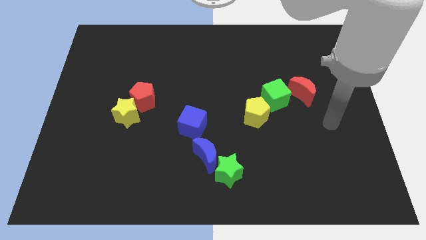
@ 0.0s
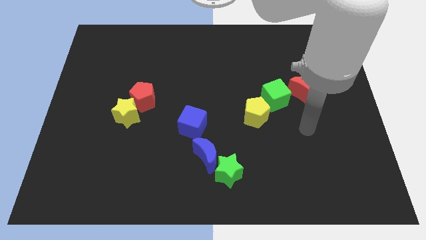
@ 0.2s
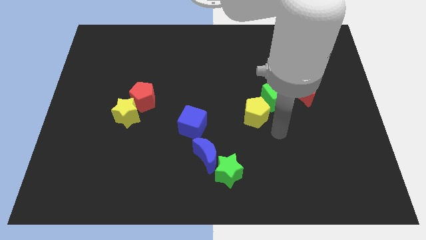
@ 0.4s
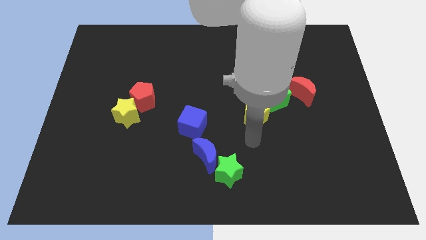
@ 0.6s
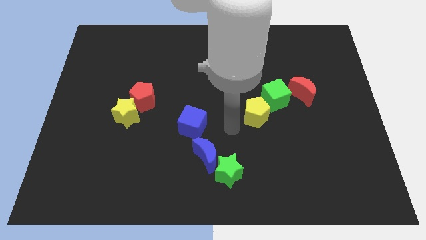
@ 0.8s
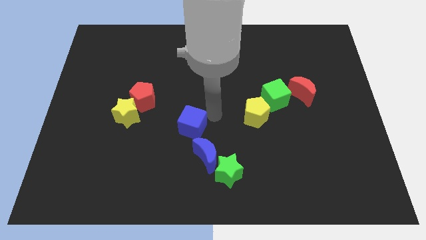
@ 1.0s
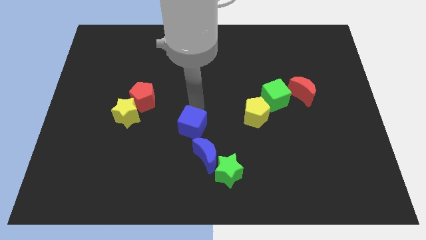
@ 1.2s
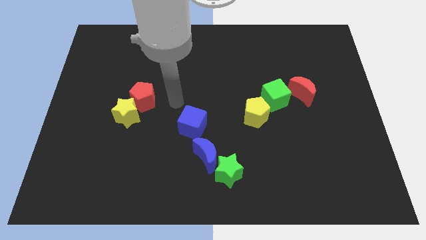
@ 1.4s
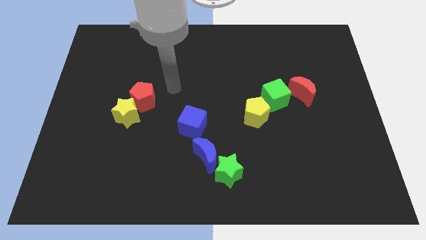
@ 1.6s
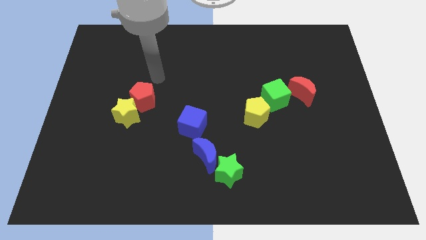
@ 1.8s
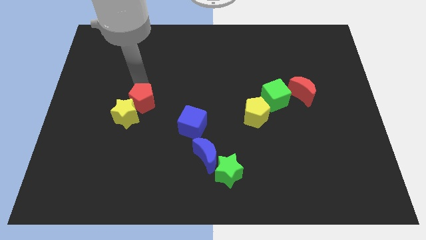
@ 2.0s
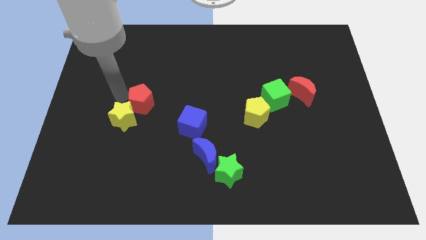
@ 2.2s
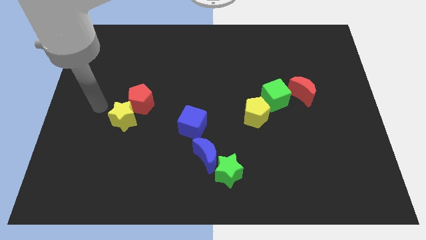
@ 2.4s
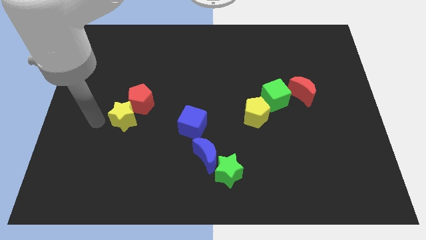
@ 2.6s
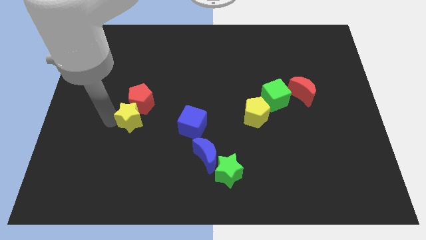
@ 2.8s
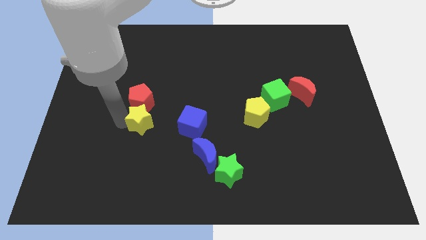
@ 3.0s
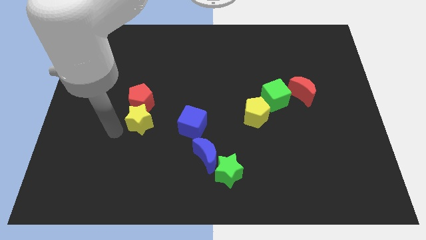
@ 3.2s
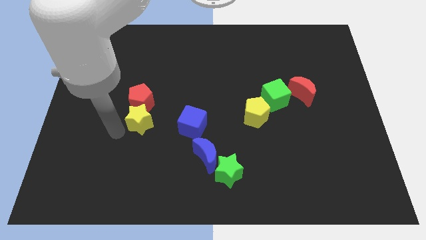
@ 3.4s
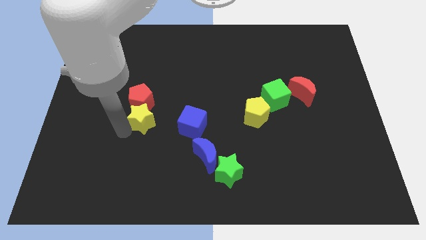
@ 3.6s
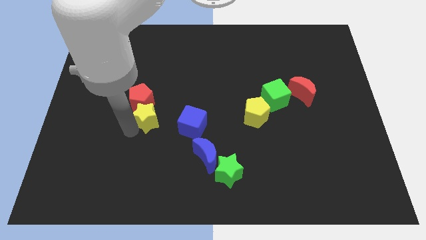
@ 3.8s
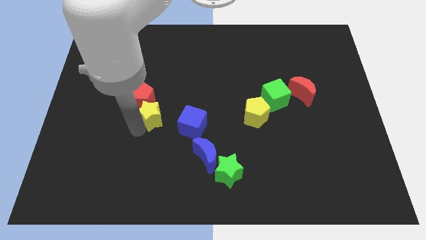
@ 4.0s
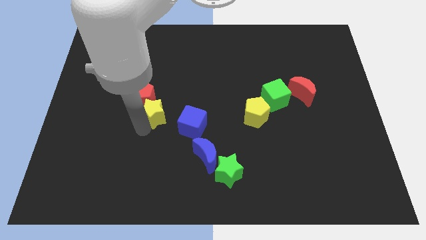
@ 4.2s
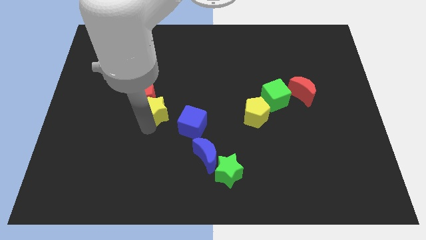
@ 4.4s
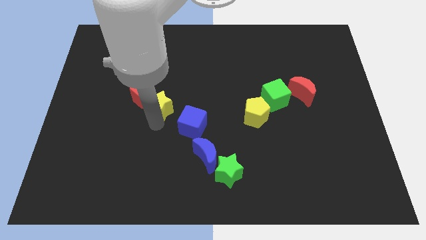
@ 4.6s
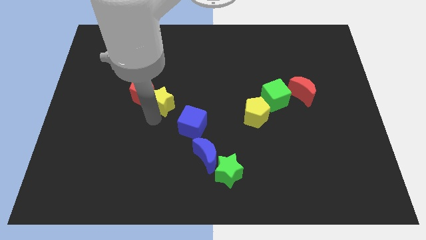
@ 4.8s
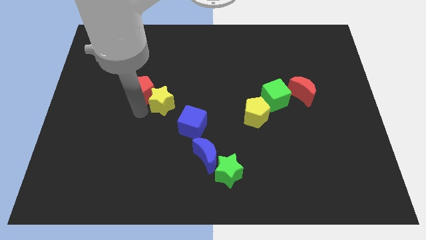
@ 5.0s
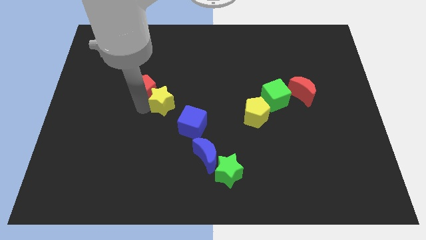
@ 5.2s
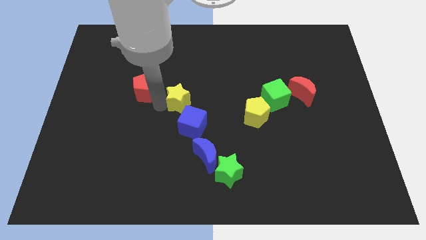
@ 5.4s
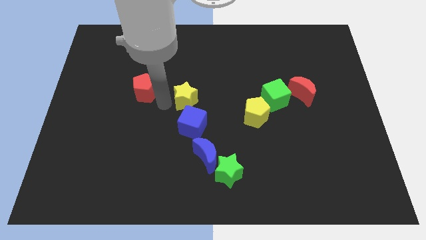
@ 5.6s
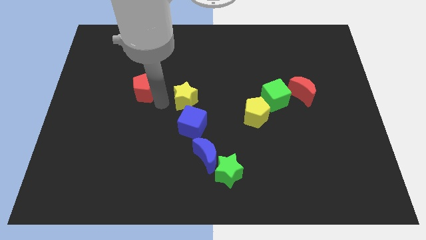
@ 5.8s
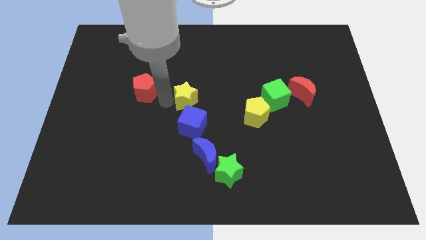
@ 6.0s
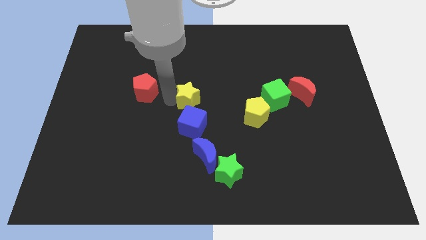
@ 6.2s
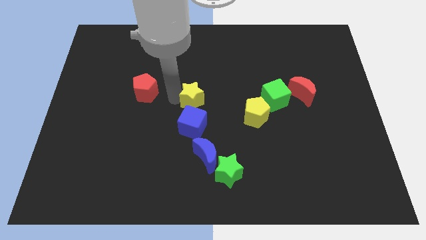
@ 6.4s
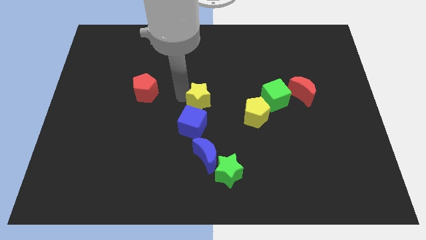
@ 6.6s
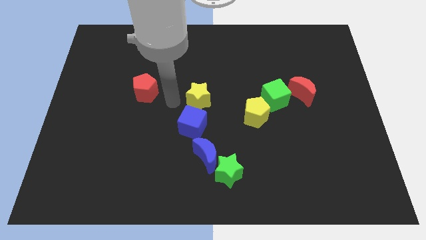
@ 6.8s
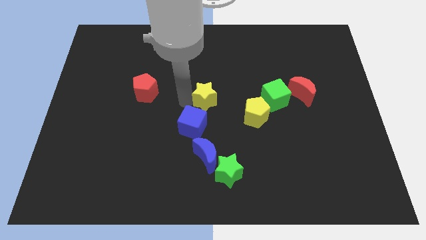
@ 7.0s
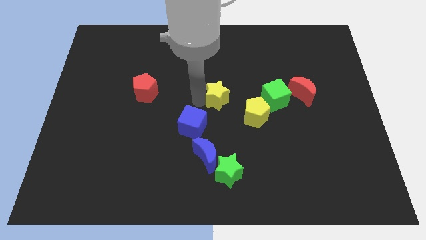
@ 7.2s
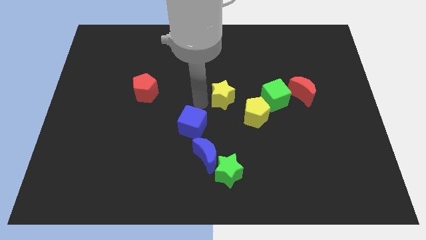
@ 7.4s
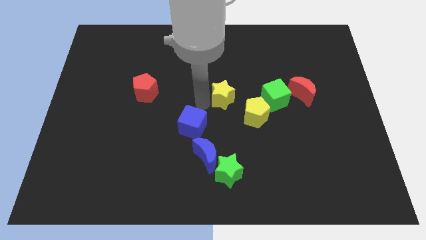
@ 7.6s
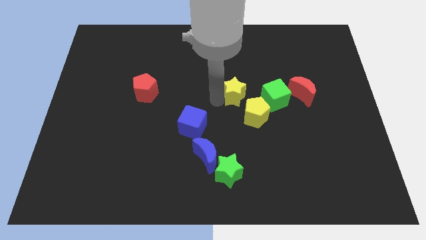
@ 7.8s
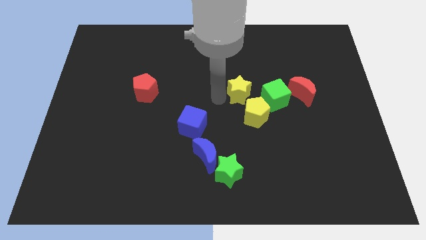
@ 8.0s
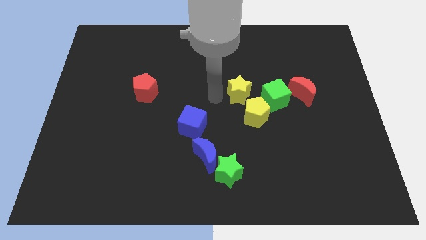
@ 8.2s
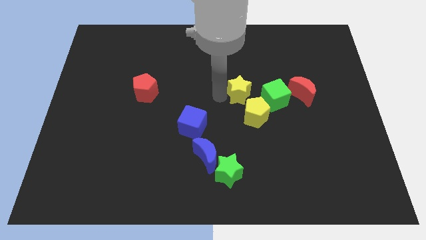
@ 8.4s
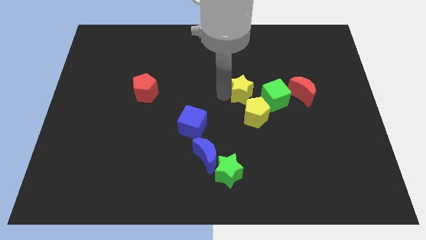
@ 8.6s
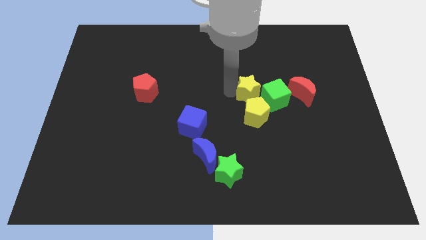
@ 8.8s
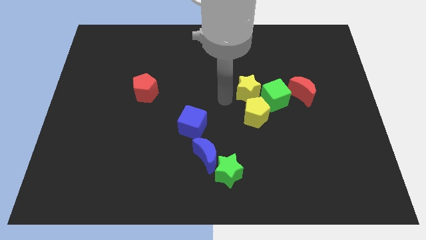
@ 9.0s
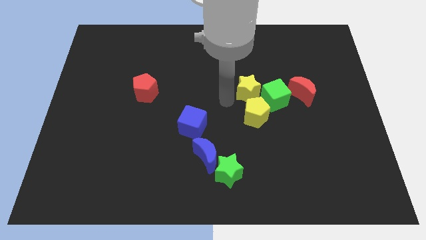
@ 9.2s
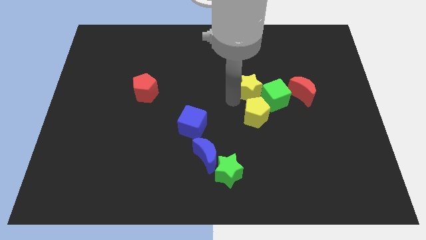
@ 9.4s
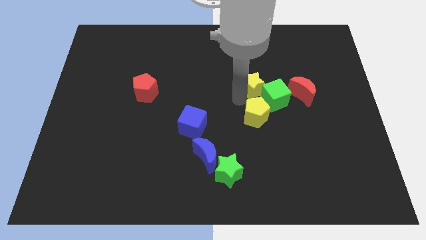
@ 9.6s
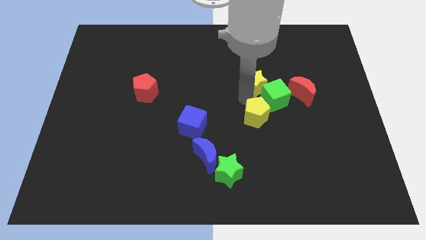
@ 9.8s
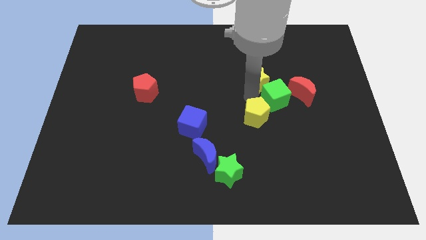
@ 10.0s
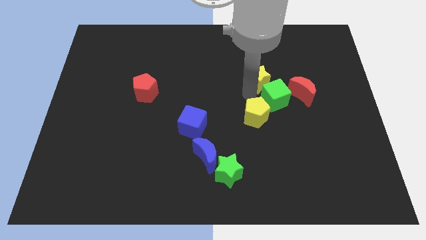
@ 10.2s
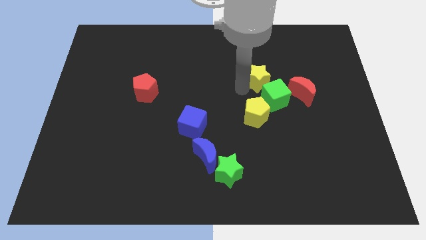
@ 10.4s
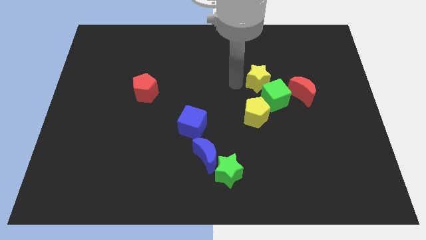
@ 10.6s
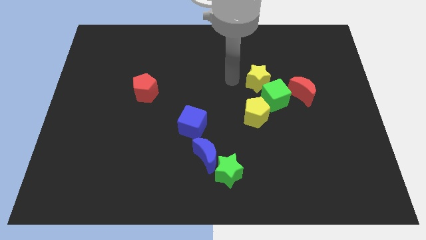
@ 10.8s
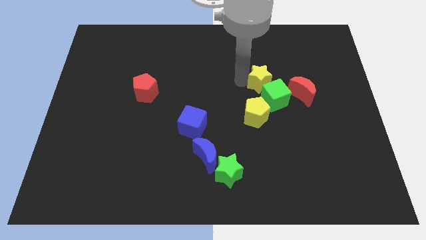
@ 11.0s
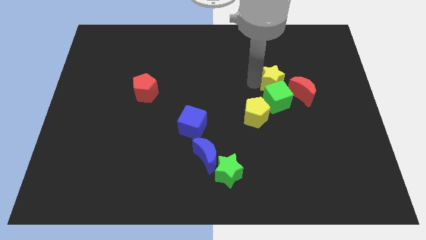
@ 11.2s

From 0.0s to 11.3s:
slide the yellow star to the top right side of the green cube

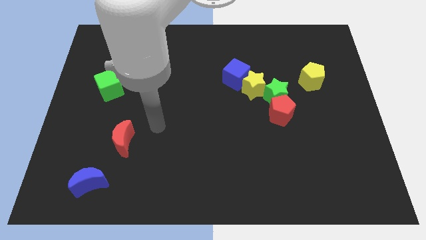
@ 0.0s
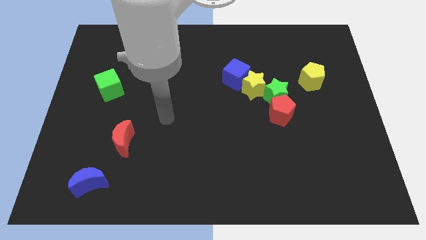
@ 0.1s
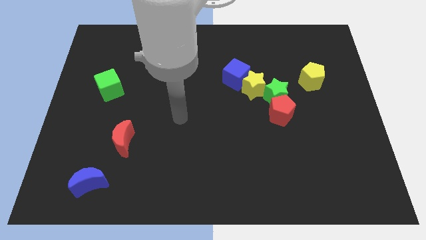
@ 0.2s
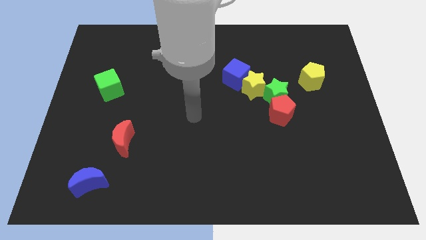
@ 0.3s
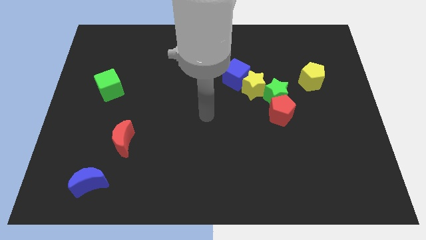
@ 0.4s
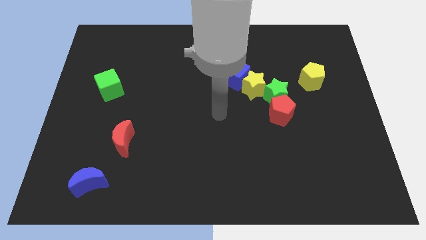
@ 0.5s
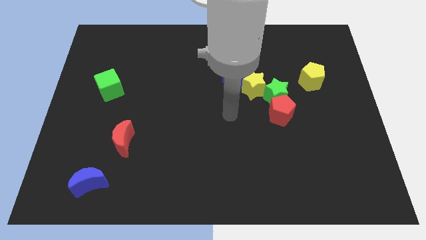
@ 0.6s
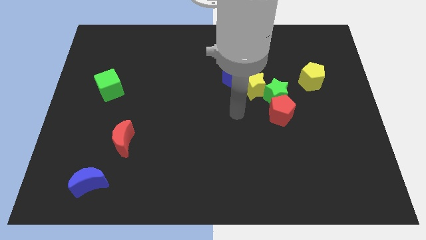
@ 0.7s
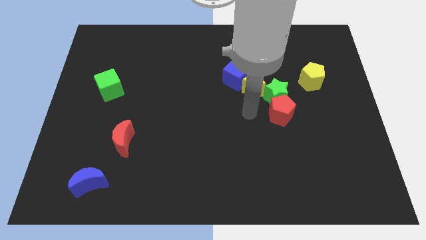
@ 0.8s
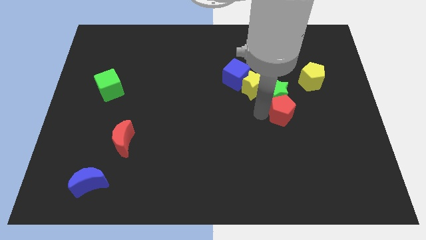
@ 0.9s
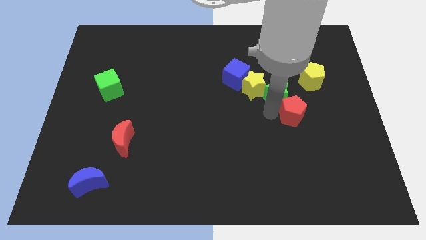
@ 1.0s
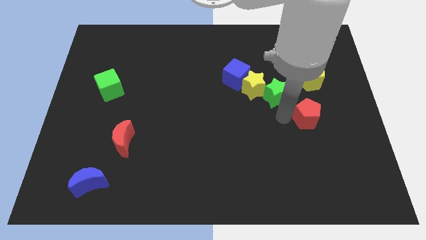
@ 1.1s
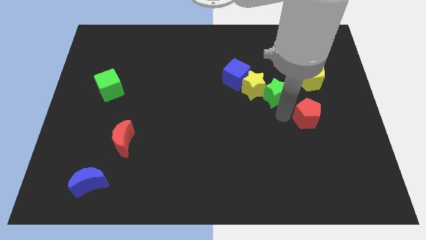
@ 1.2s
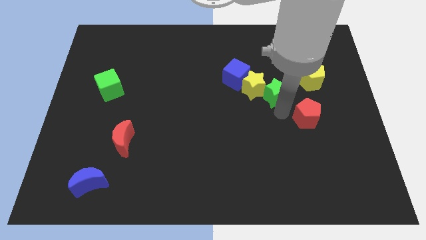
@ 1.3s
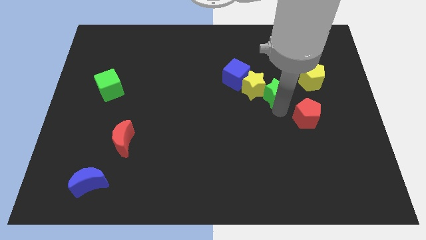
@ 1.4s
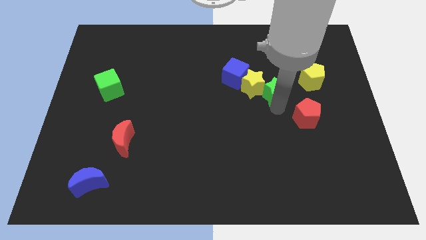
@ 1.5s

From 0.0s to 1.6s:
slide the green star to the left side of the yellow pentagon
